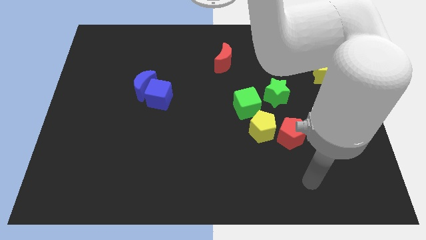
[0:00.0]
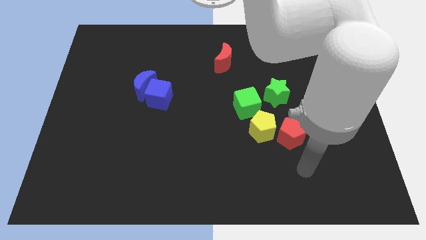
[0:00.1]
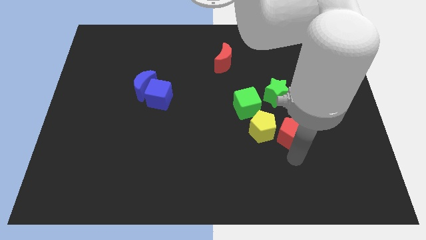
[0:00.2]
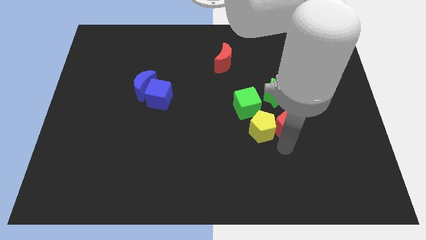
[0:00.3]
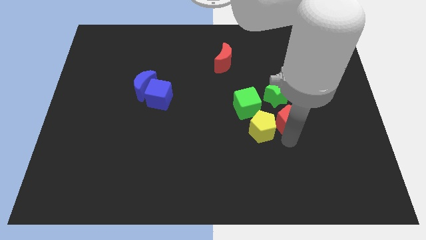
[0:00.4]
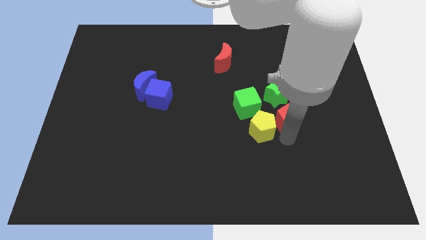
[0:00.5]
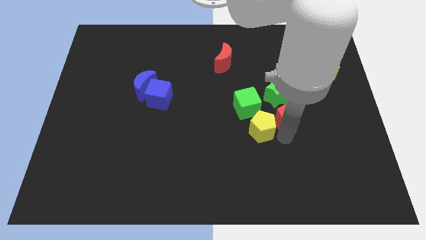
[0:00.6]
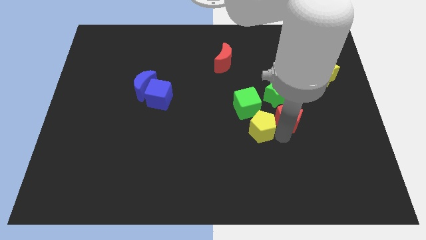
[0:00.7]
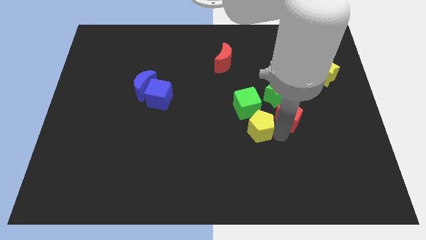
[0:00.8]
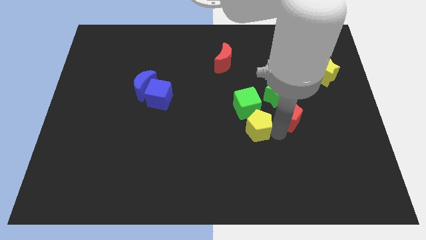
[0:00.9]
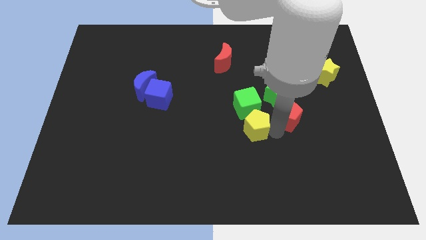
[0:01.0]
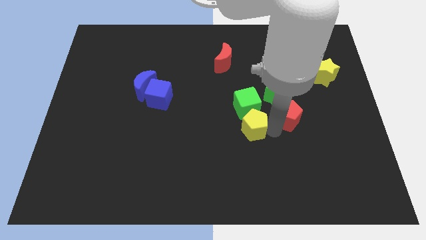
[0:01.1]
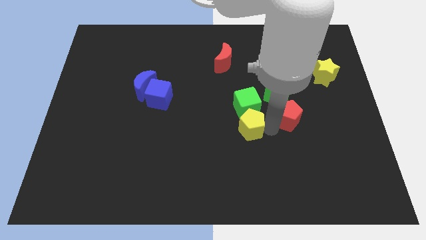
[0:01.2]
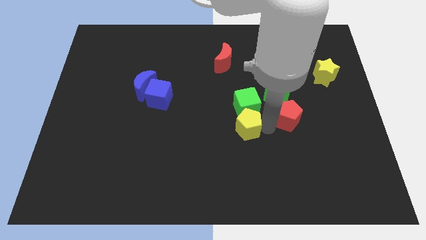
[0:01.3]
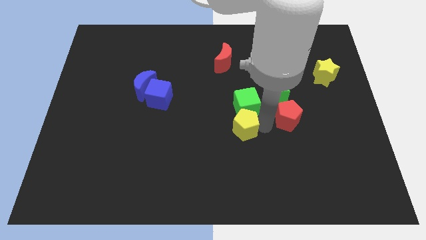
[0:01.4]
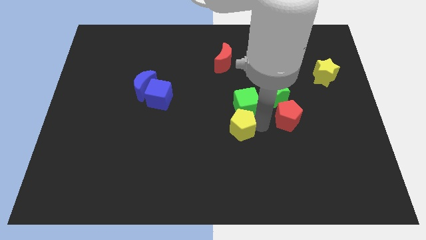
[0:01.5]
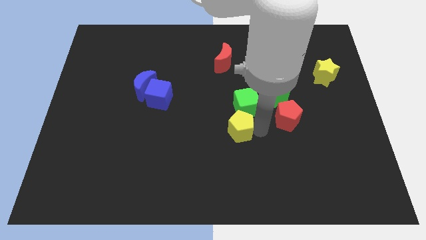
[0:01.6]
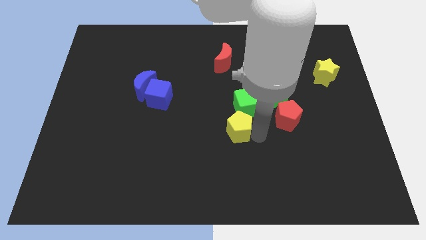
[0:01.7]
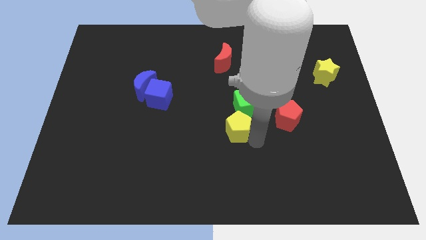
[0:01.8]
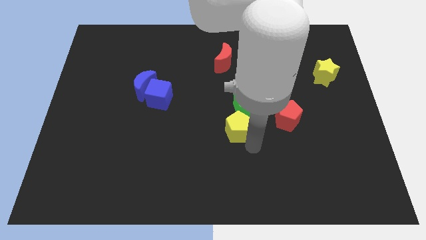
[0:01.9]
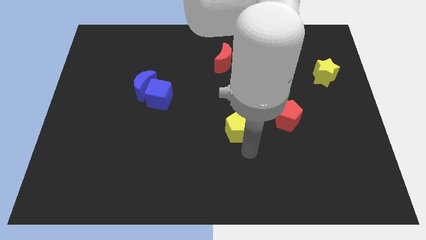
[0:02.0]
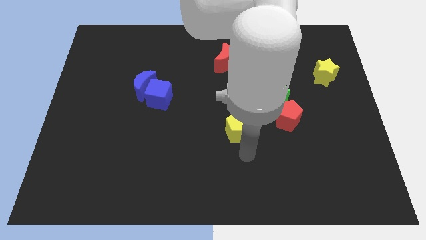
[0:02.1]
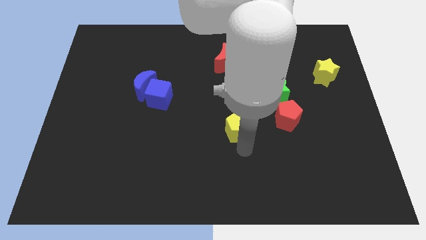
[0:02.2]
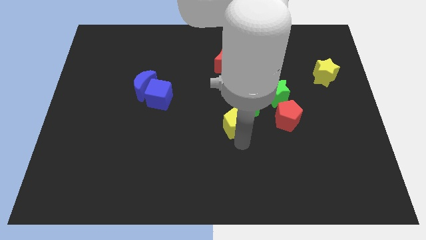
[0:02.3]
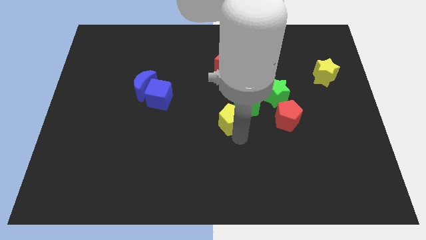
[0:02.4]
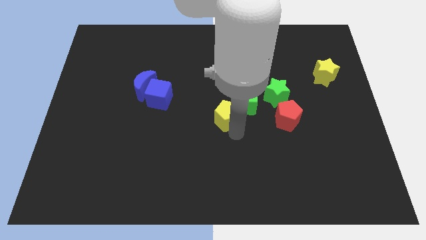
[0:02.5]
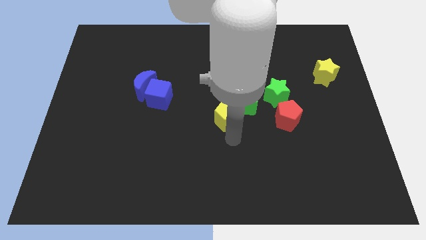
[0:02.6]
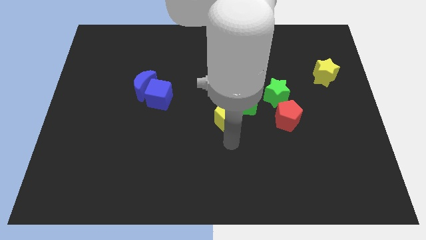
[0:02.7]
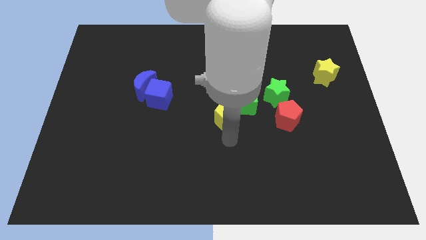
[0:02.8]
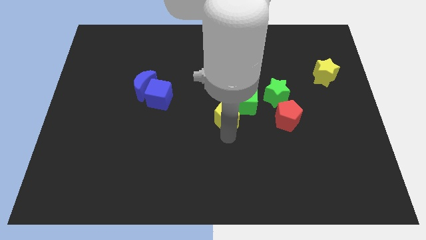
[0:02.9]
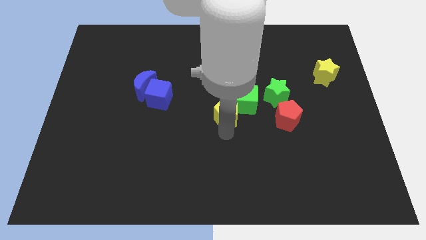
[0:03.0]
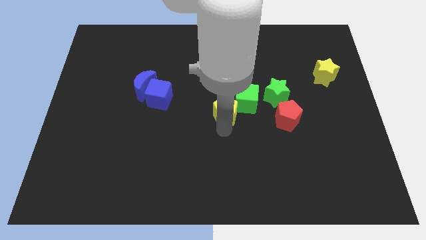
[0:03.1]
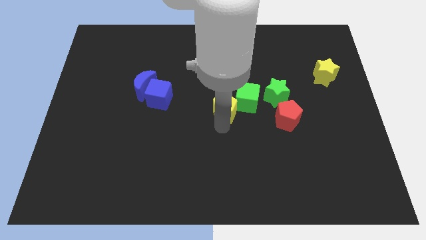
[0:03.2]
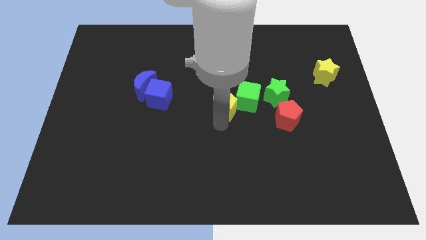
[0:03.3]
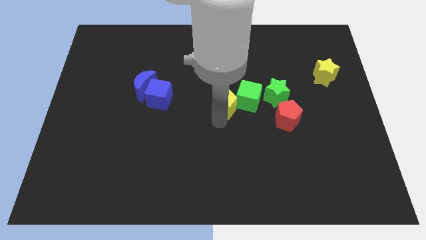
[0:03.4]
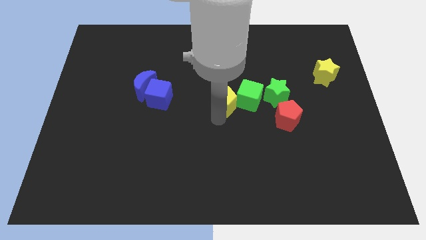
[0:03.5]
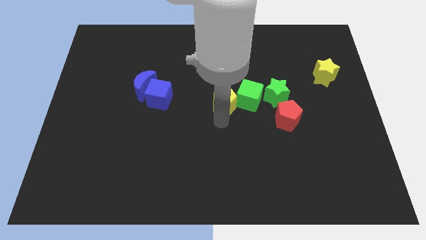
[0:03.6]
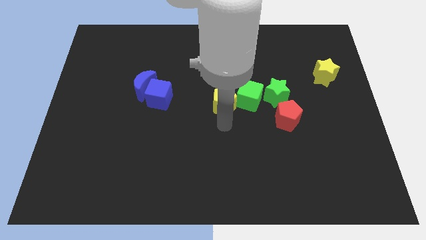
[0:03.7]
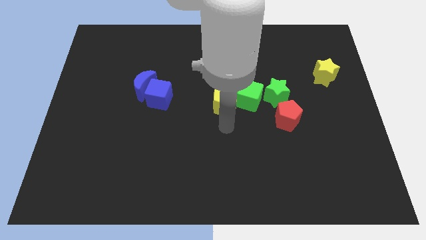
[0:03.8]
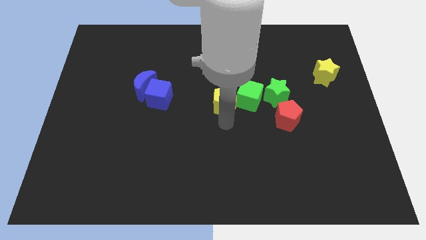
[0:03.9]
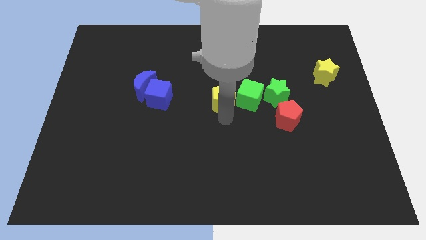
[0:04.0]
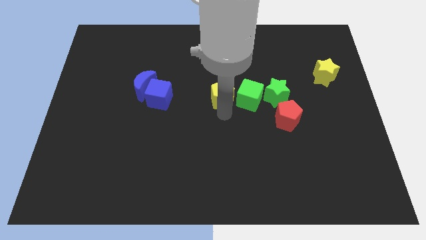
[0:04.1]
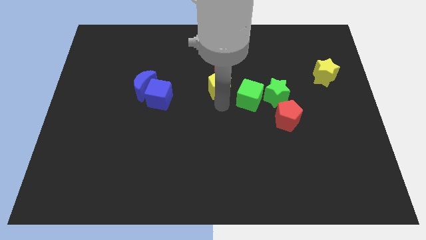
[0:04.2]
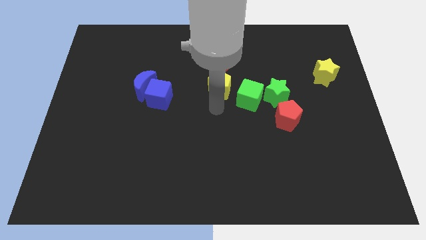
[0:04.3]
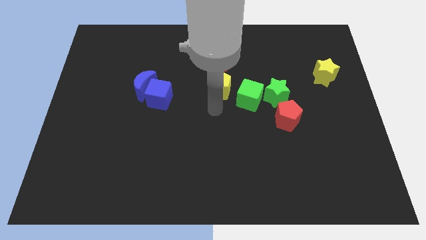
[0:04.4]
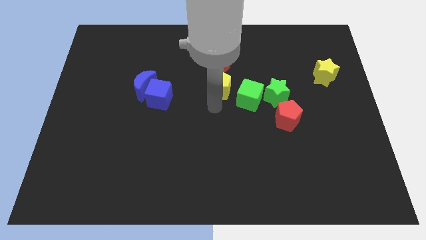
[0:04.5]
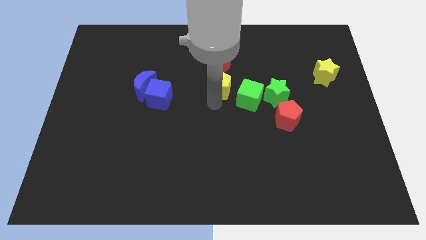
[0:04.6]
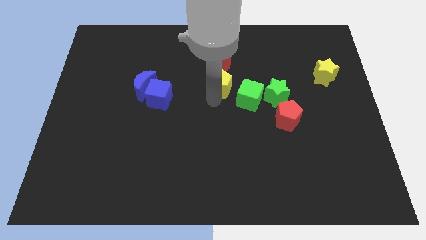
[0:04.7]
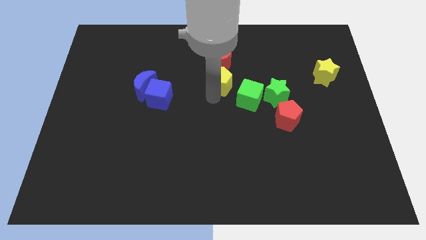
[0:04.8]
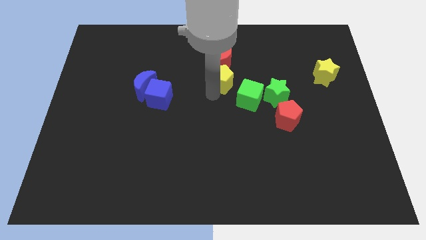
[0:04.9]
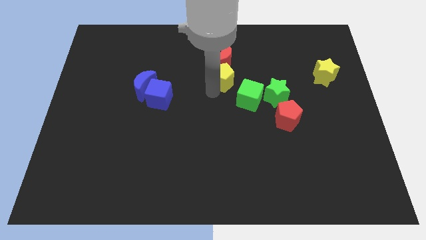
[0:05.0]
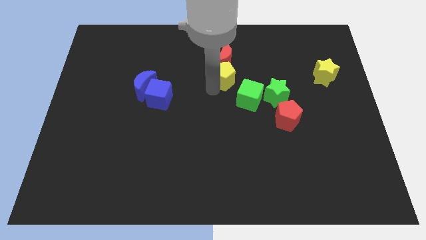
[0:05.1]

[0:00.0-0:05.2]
slide the yellow pentagon next to the red moon

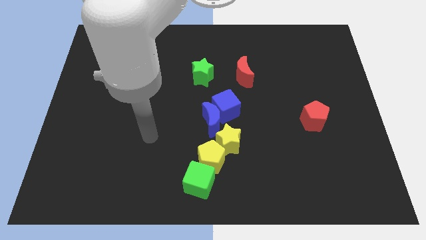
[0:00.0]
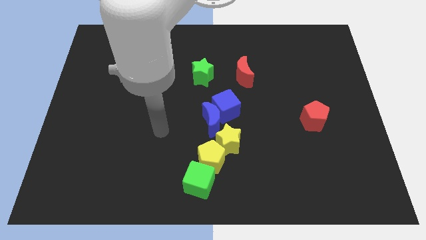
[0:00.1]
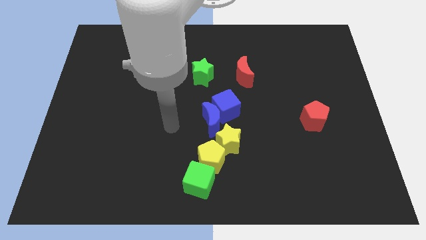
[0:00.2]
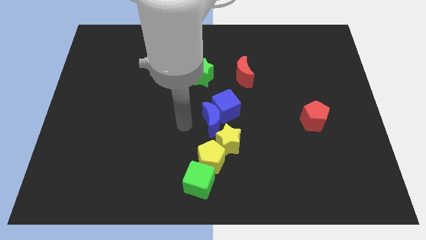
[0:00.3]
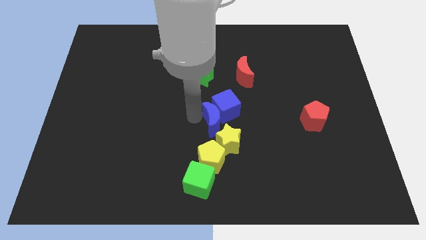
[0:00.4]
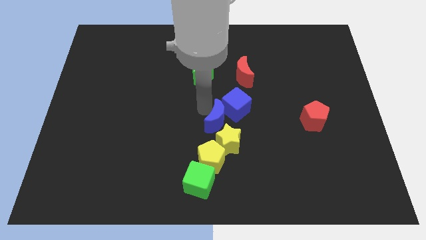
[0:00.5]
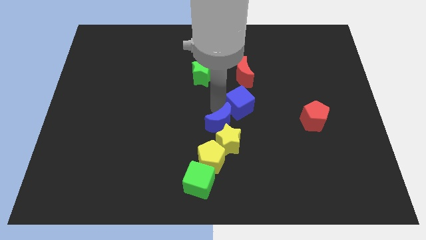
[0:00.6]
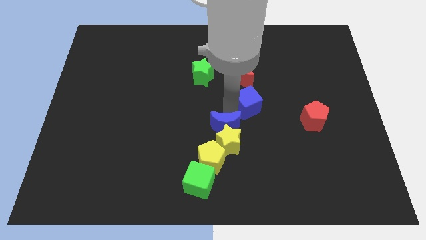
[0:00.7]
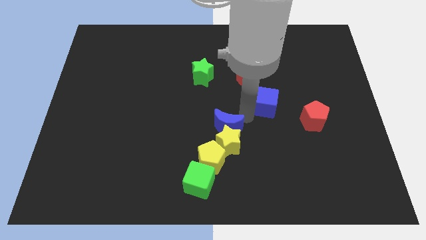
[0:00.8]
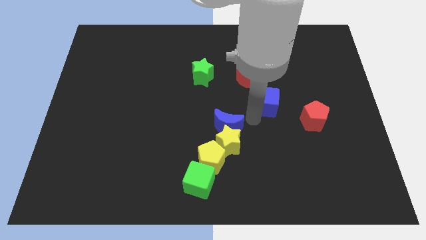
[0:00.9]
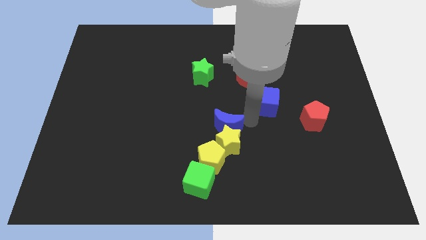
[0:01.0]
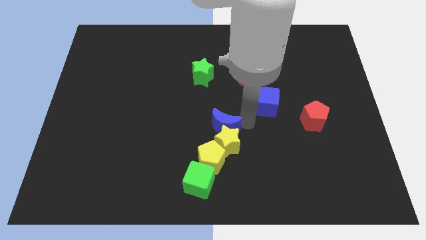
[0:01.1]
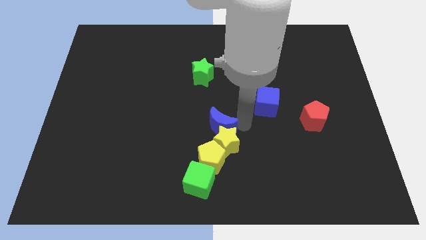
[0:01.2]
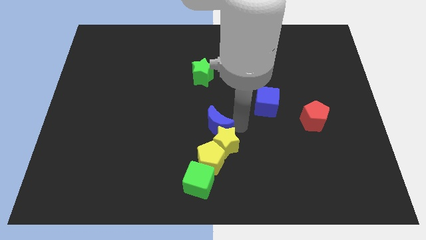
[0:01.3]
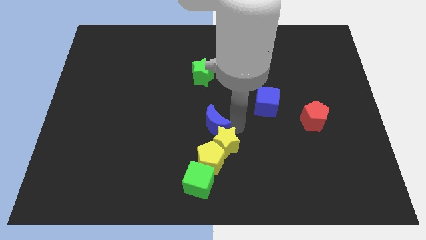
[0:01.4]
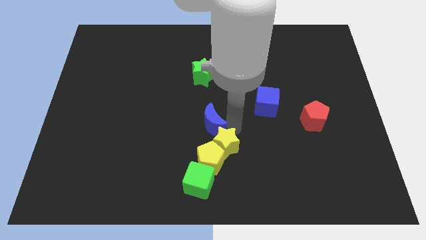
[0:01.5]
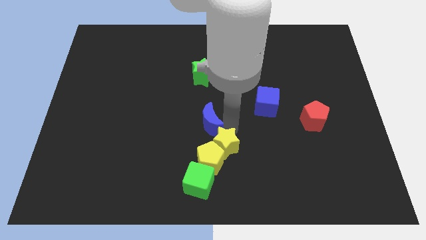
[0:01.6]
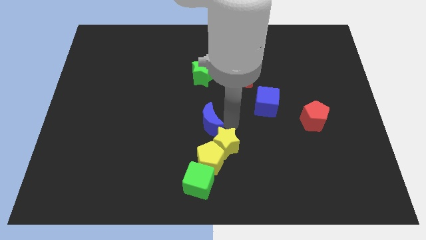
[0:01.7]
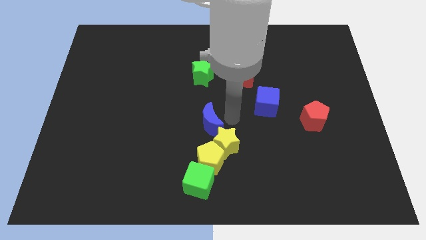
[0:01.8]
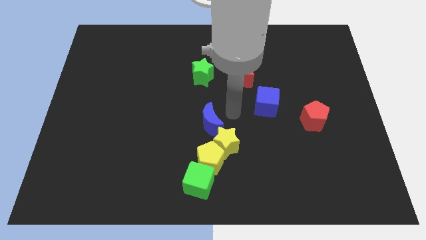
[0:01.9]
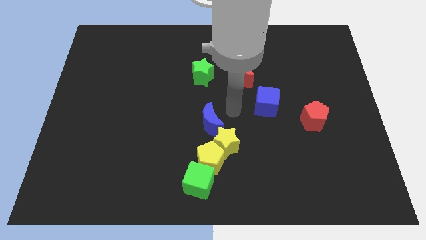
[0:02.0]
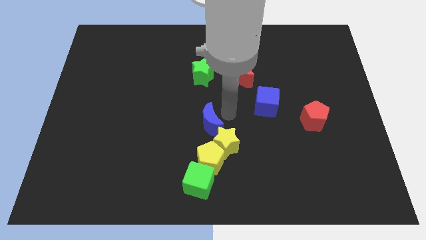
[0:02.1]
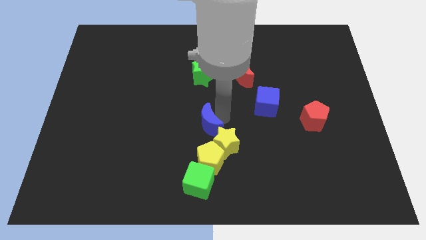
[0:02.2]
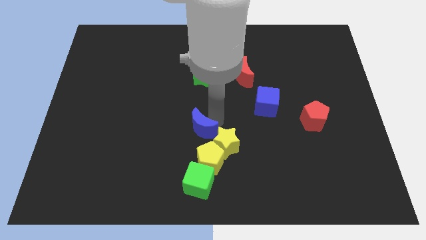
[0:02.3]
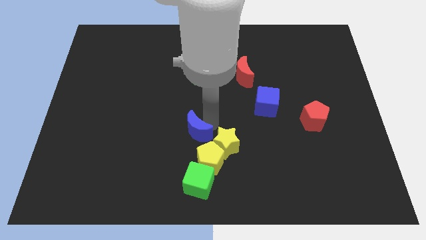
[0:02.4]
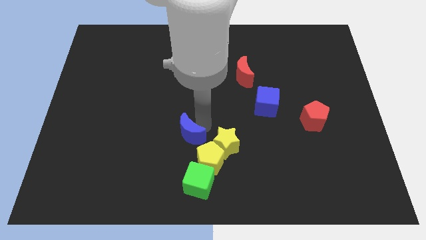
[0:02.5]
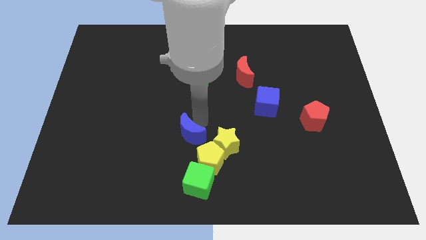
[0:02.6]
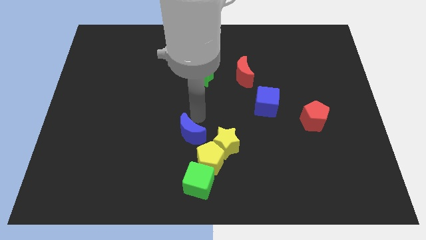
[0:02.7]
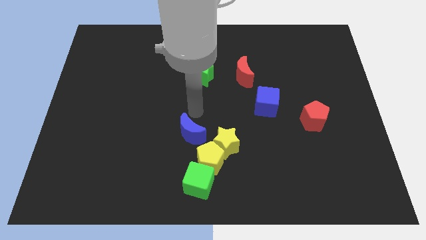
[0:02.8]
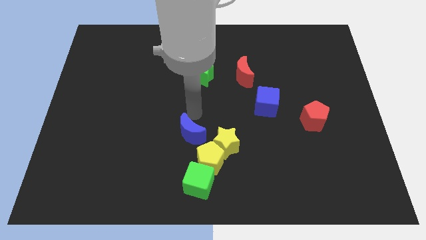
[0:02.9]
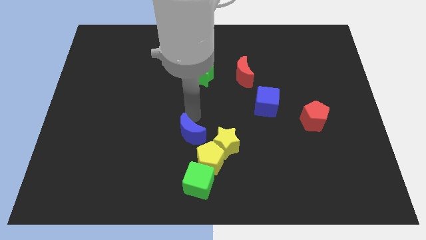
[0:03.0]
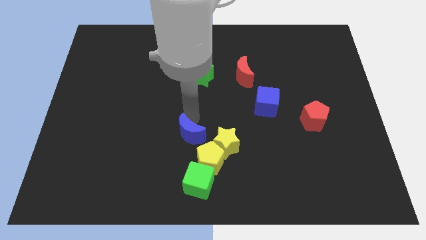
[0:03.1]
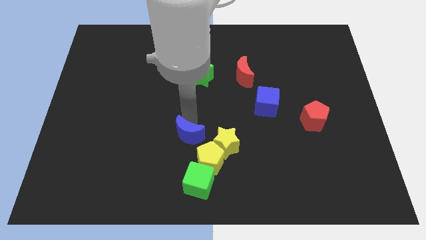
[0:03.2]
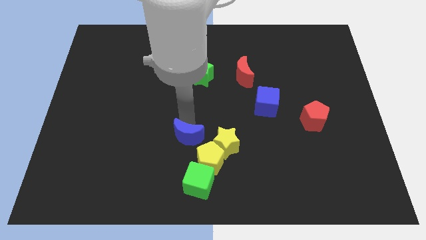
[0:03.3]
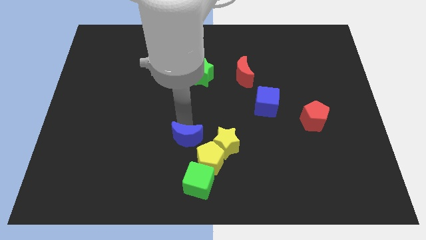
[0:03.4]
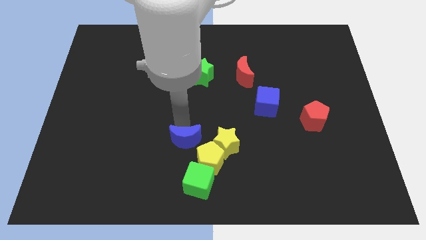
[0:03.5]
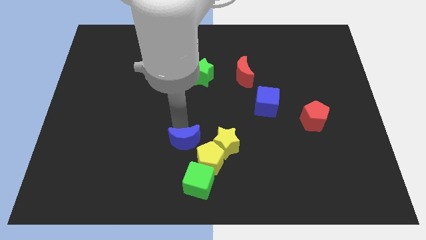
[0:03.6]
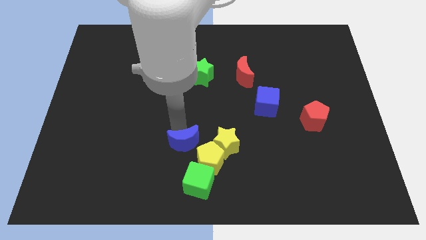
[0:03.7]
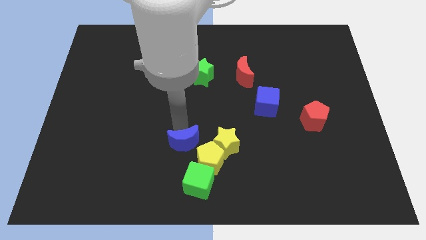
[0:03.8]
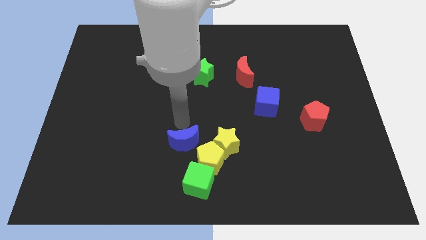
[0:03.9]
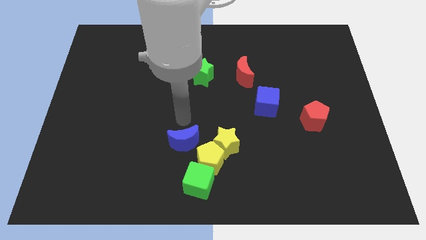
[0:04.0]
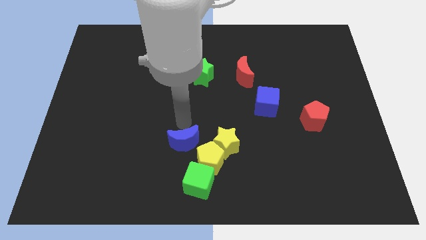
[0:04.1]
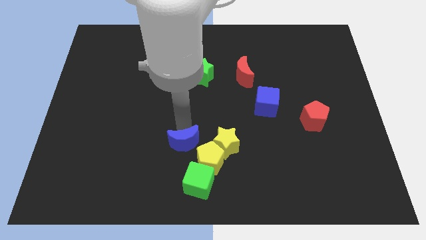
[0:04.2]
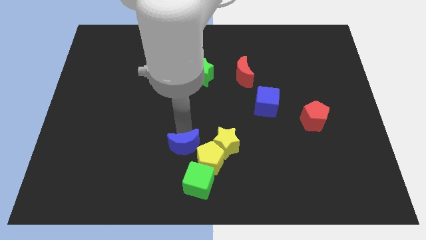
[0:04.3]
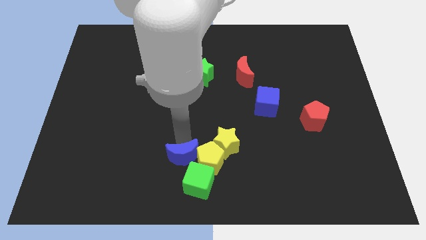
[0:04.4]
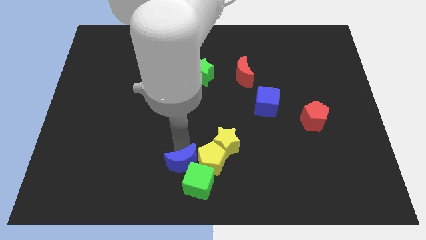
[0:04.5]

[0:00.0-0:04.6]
put the blue moon next to the green cube
